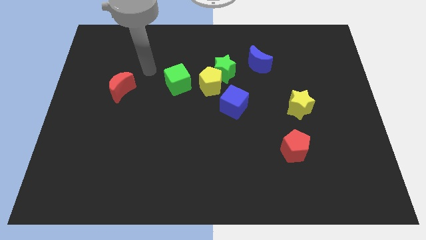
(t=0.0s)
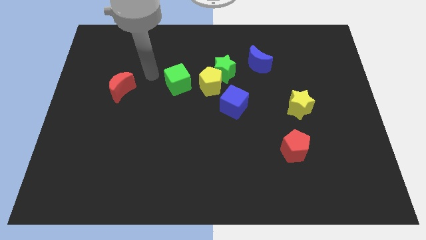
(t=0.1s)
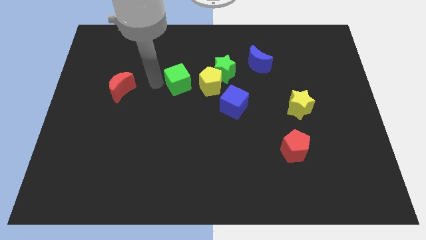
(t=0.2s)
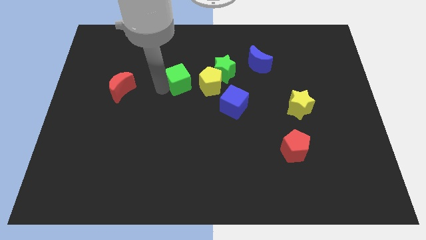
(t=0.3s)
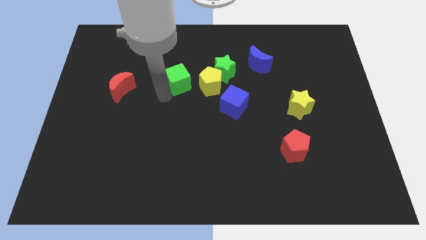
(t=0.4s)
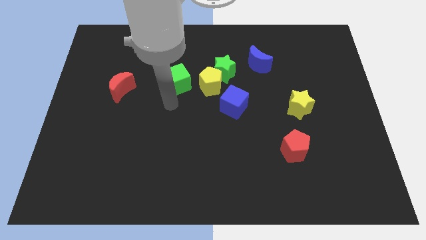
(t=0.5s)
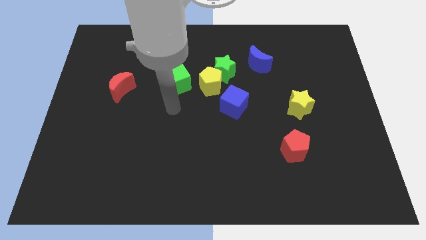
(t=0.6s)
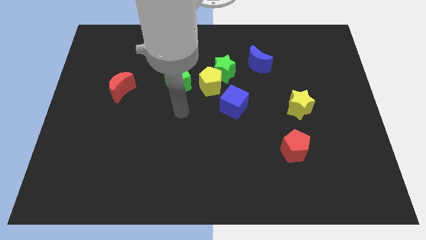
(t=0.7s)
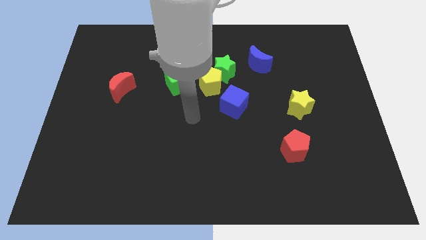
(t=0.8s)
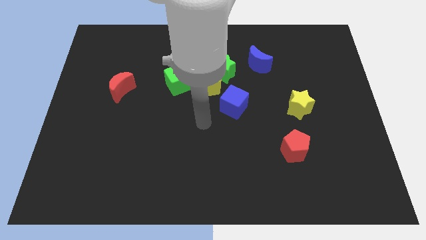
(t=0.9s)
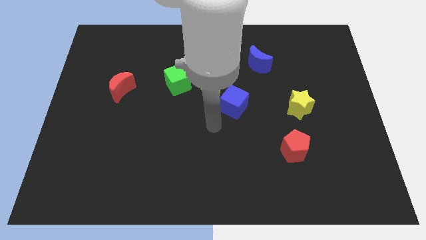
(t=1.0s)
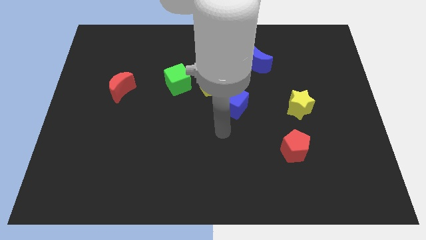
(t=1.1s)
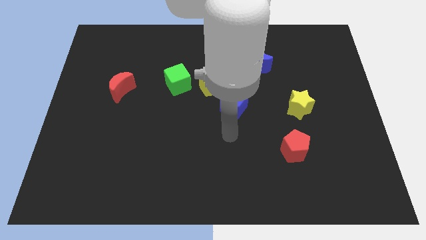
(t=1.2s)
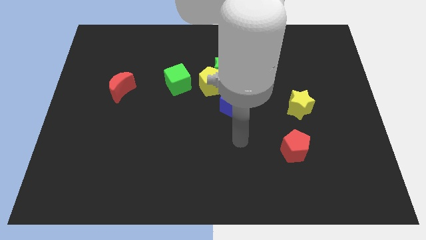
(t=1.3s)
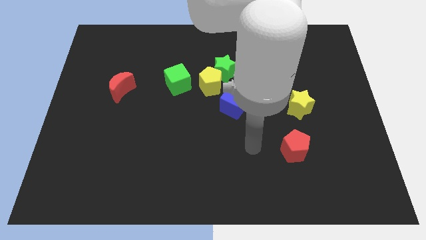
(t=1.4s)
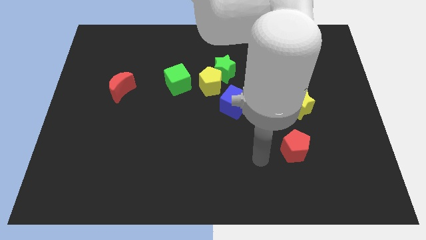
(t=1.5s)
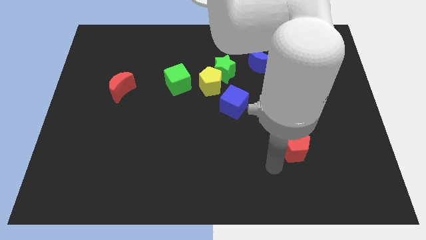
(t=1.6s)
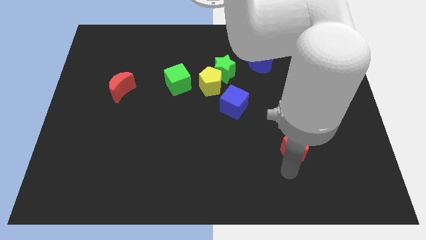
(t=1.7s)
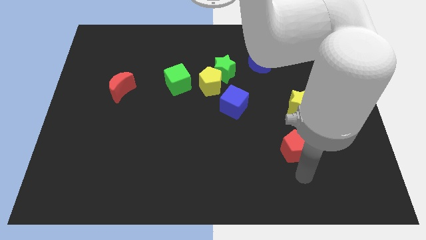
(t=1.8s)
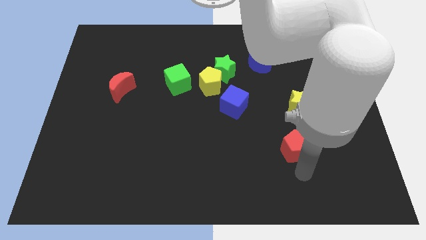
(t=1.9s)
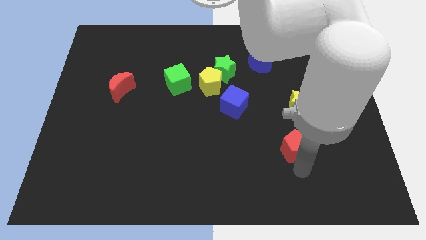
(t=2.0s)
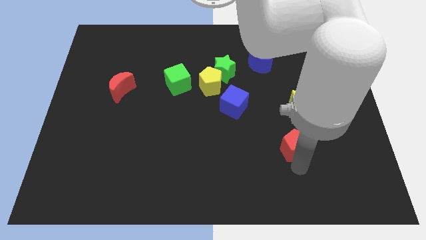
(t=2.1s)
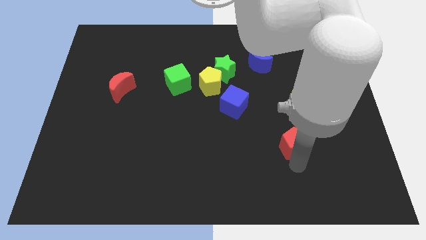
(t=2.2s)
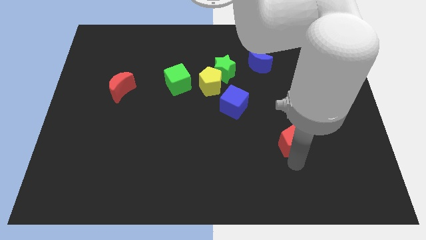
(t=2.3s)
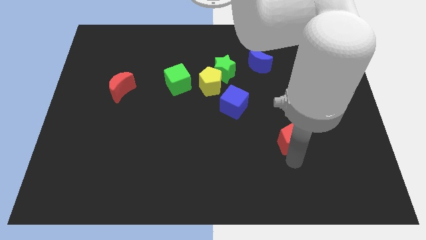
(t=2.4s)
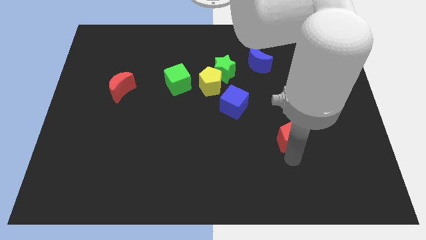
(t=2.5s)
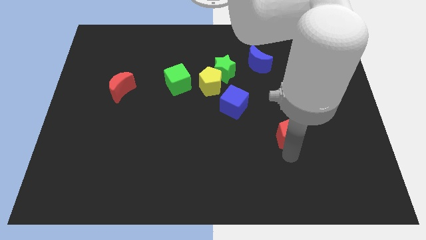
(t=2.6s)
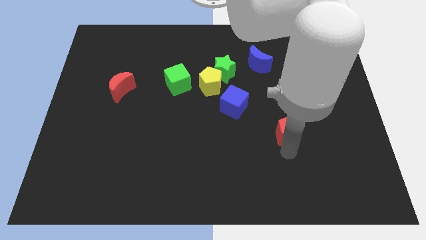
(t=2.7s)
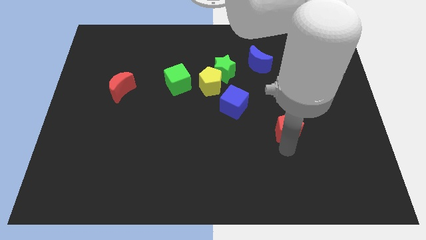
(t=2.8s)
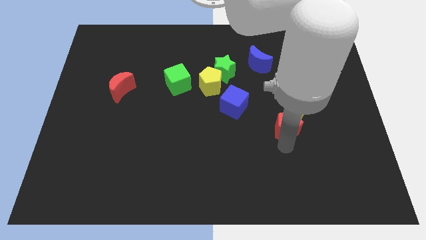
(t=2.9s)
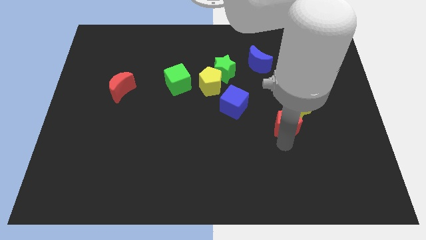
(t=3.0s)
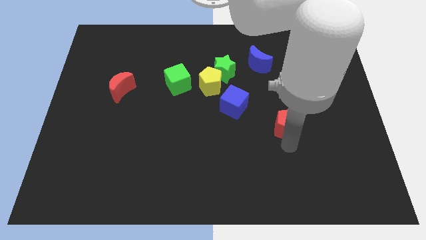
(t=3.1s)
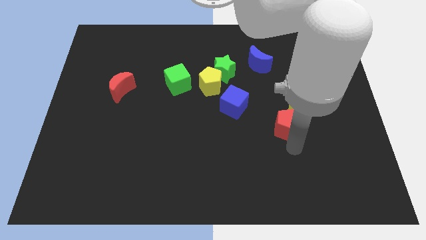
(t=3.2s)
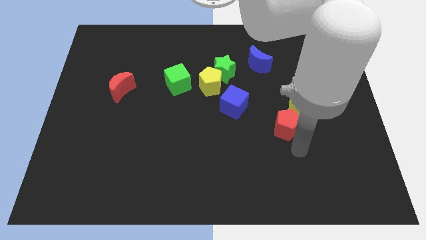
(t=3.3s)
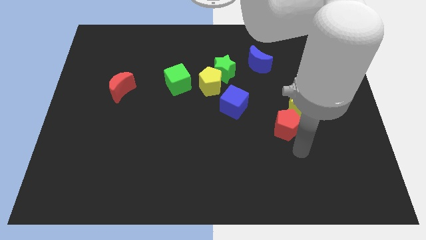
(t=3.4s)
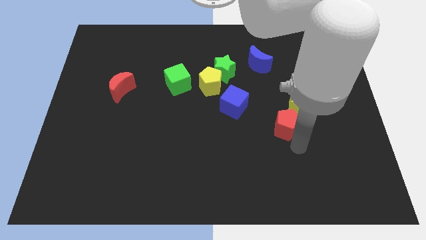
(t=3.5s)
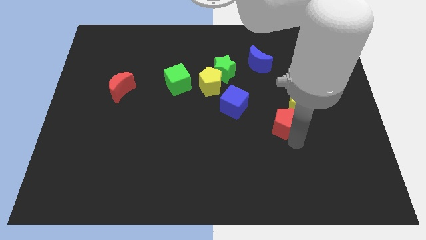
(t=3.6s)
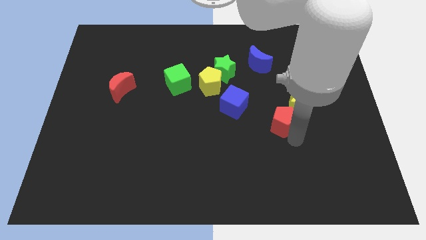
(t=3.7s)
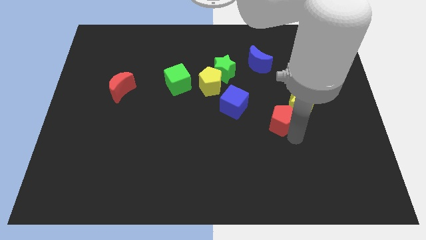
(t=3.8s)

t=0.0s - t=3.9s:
slightly push the red pentagon upwards

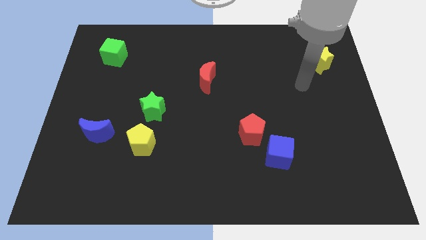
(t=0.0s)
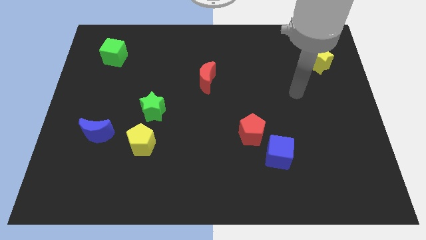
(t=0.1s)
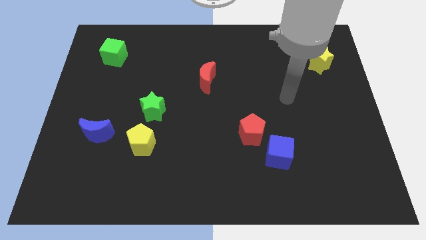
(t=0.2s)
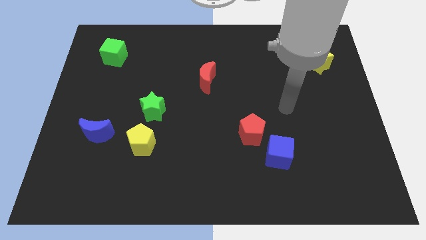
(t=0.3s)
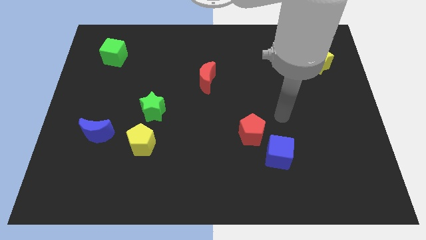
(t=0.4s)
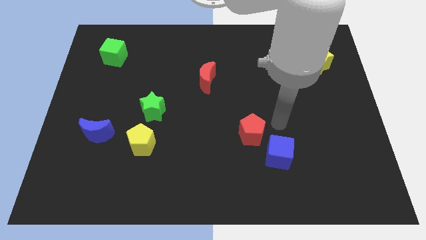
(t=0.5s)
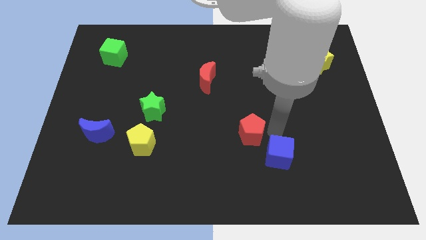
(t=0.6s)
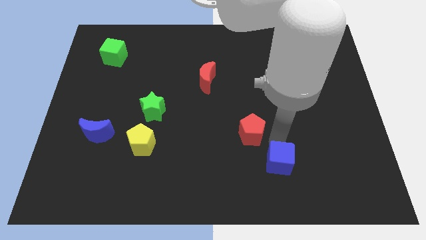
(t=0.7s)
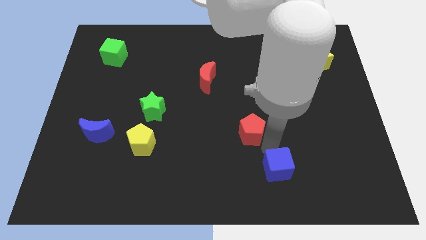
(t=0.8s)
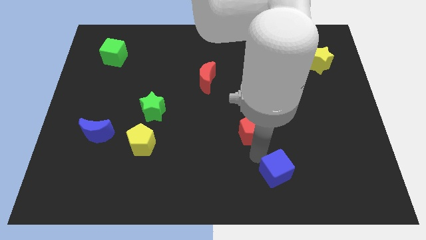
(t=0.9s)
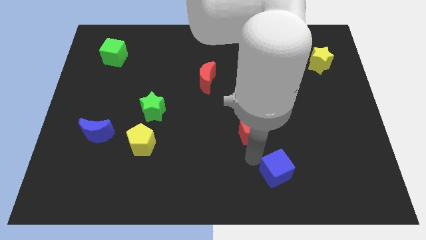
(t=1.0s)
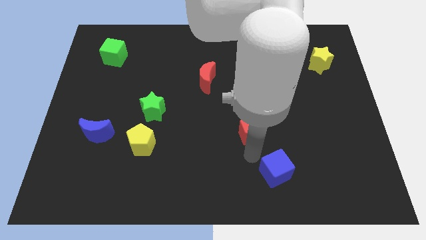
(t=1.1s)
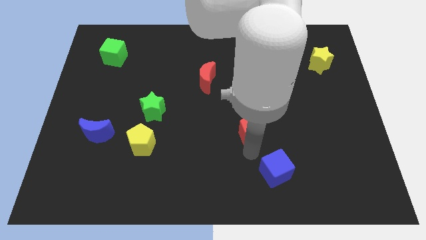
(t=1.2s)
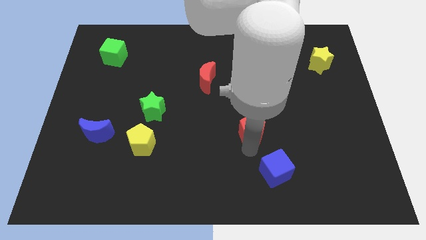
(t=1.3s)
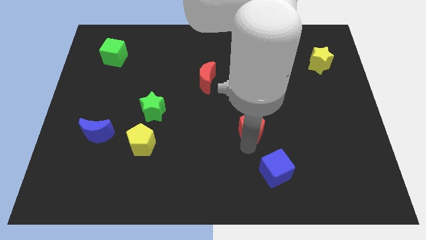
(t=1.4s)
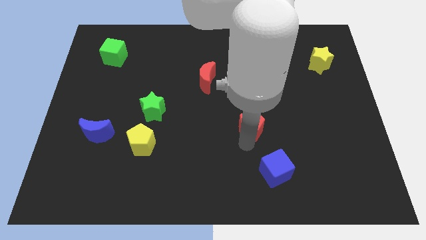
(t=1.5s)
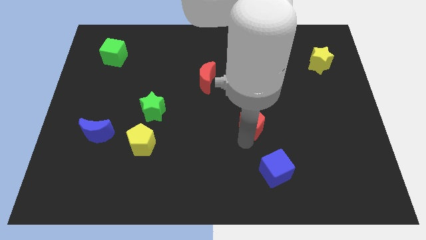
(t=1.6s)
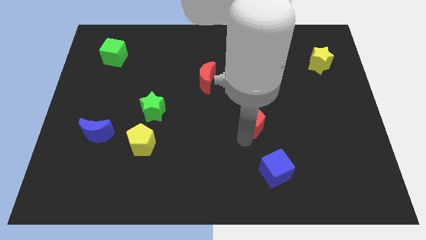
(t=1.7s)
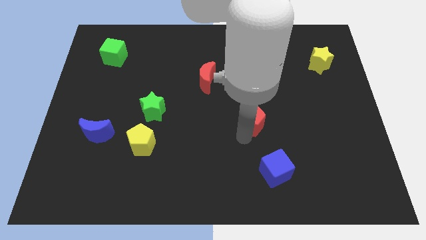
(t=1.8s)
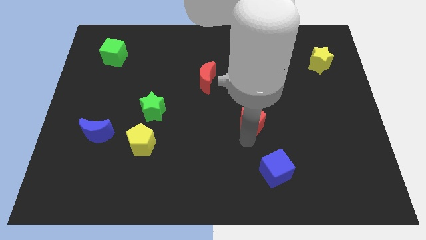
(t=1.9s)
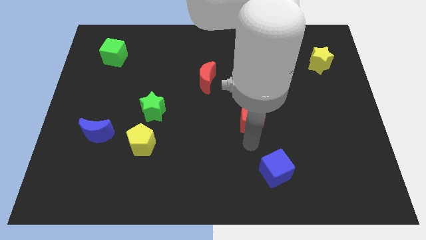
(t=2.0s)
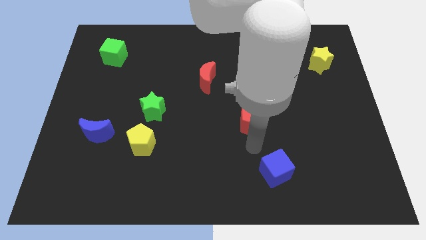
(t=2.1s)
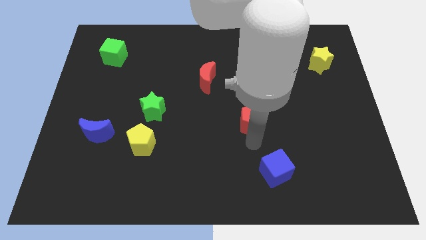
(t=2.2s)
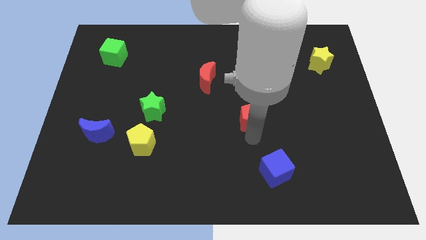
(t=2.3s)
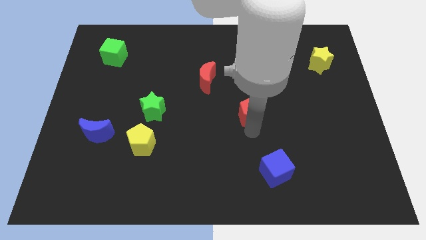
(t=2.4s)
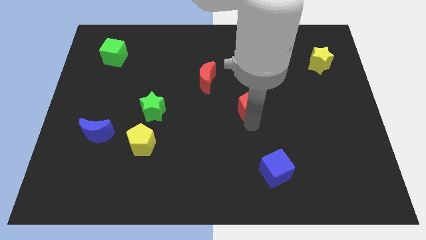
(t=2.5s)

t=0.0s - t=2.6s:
move the red pentagon a little upwards

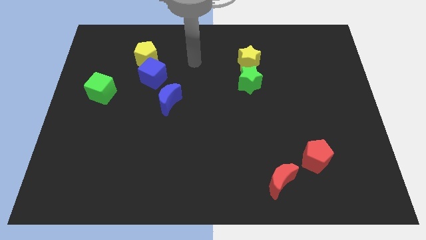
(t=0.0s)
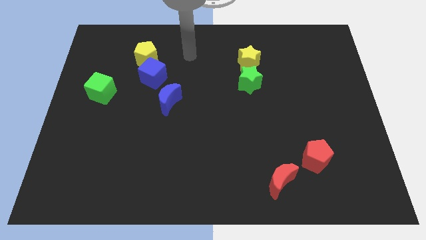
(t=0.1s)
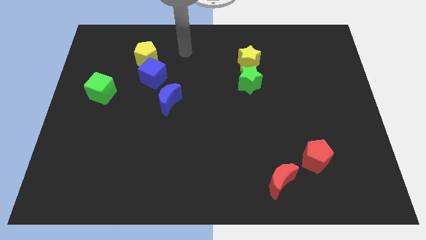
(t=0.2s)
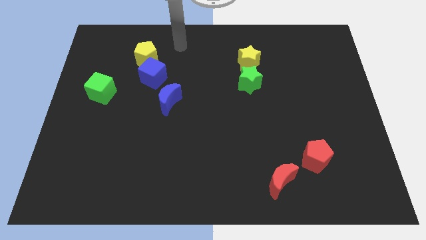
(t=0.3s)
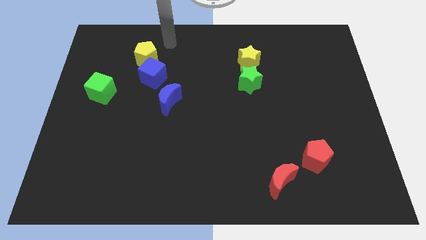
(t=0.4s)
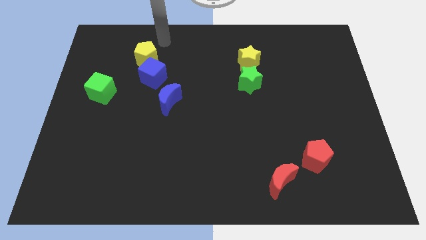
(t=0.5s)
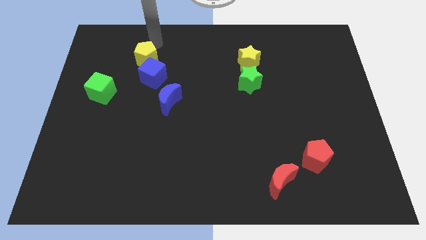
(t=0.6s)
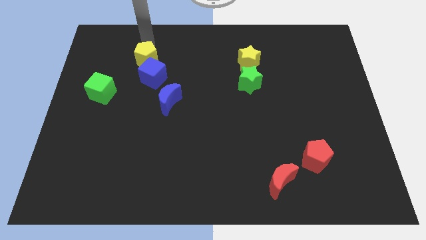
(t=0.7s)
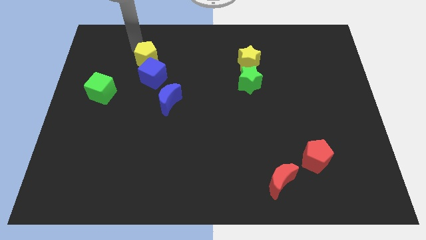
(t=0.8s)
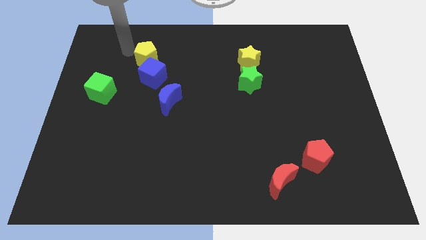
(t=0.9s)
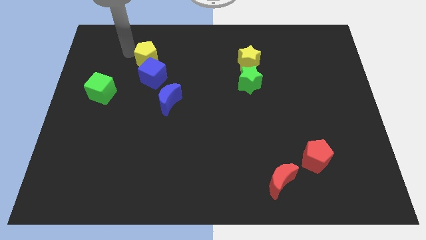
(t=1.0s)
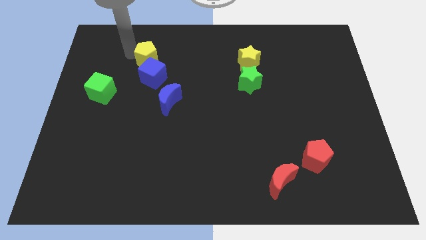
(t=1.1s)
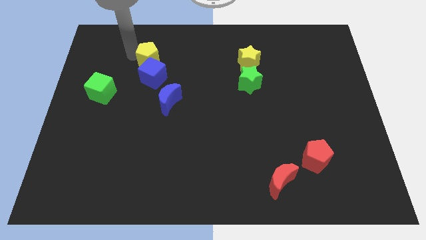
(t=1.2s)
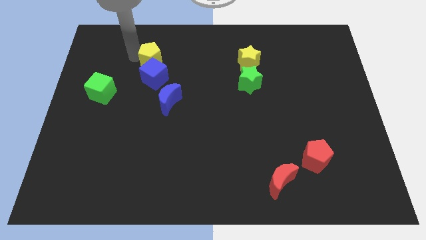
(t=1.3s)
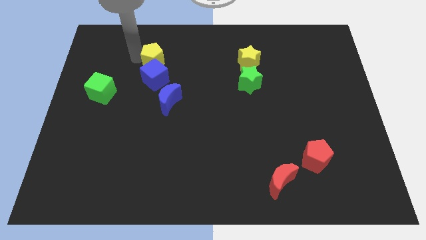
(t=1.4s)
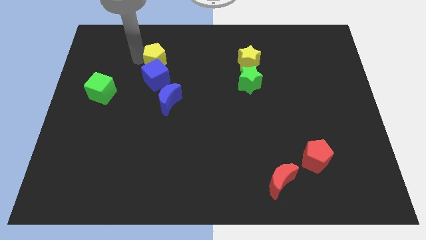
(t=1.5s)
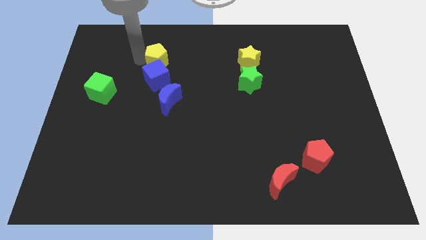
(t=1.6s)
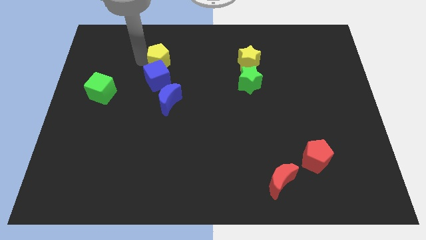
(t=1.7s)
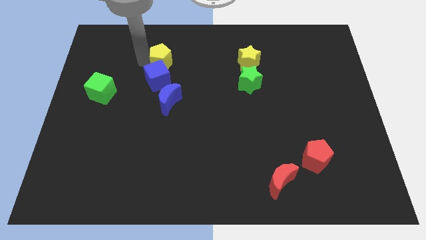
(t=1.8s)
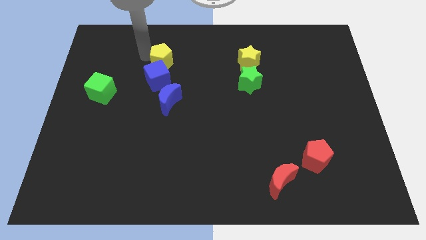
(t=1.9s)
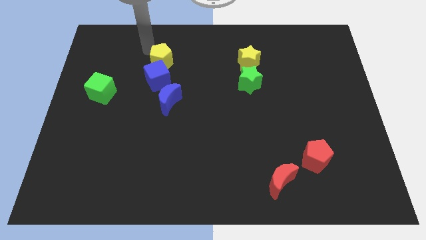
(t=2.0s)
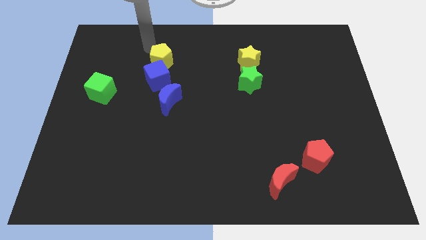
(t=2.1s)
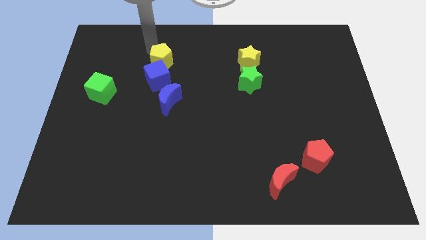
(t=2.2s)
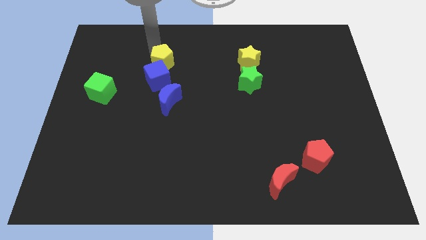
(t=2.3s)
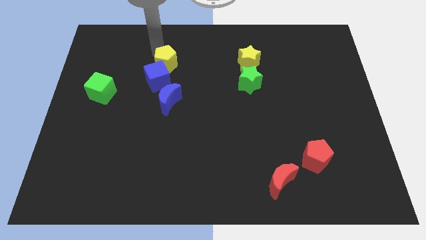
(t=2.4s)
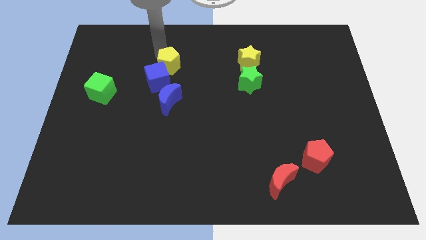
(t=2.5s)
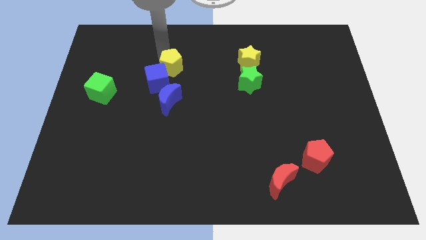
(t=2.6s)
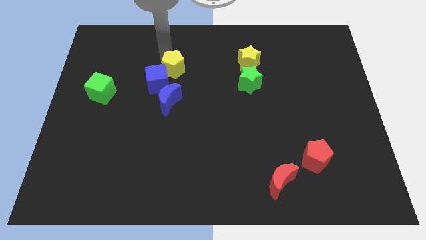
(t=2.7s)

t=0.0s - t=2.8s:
push the yellow pentagon a little bit down and to the right
